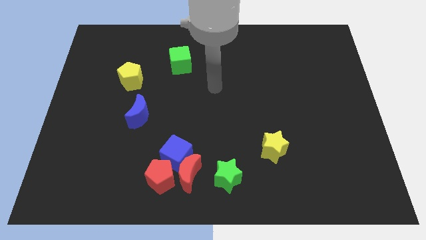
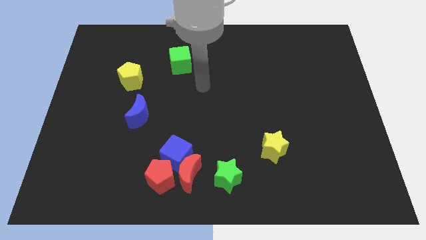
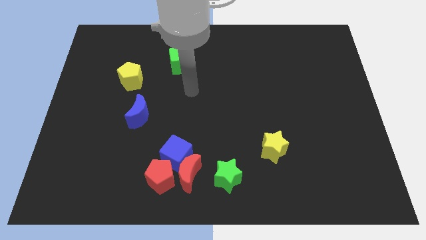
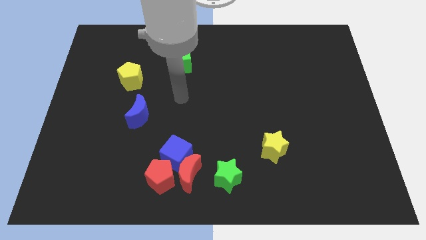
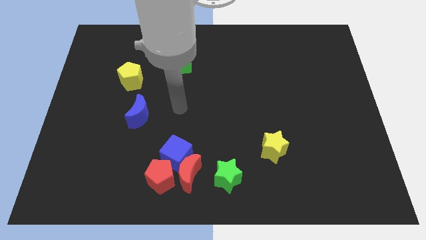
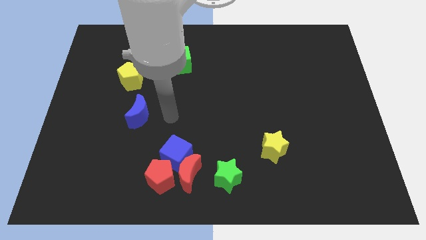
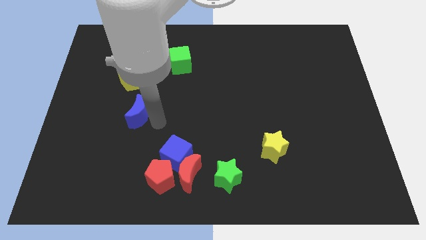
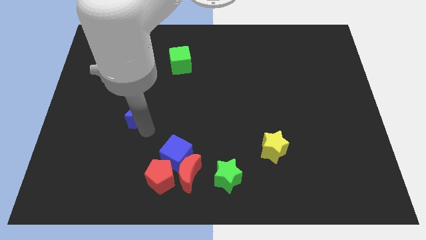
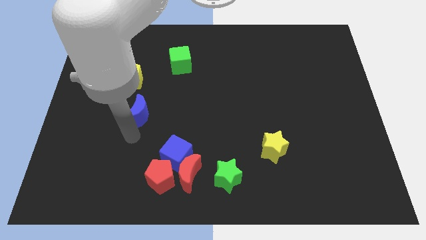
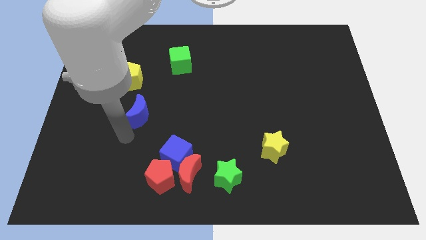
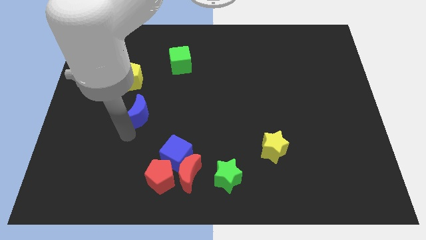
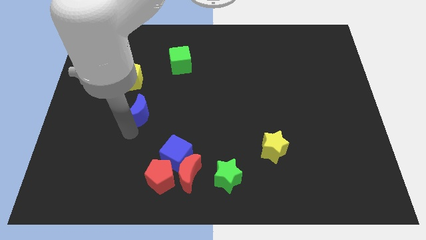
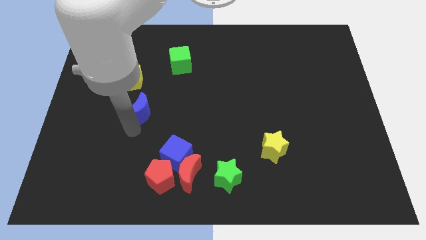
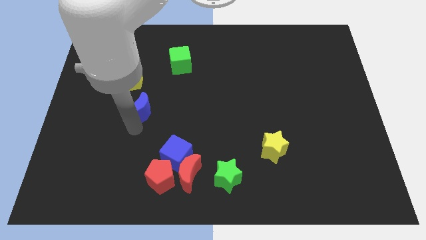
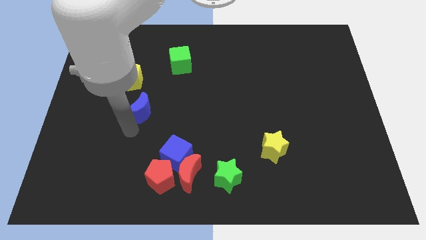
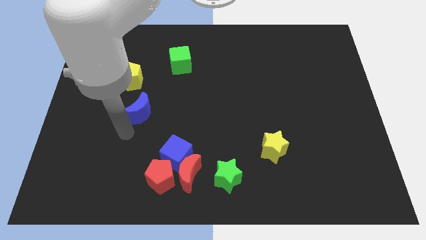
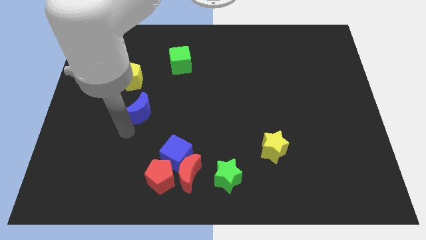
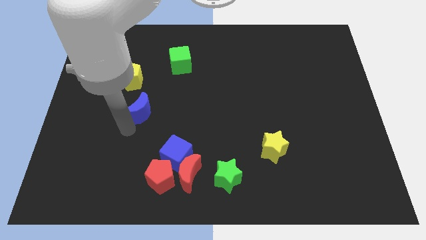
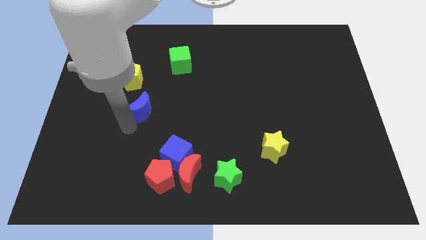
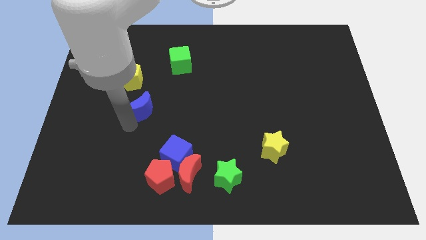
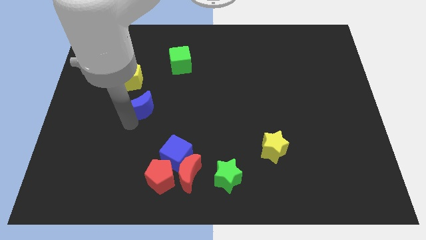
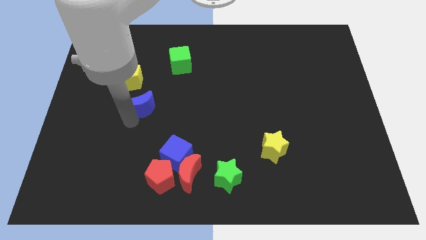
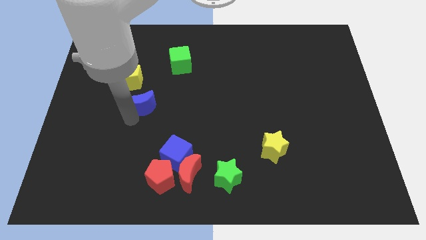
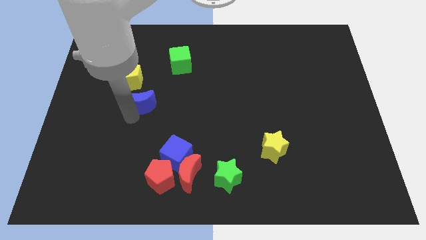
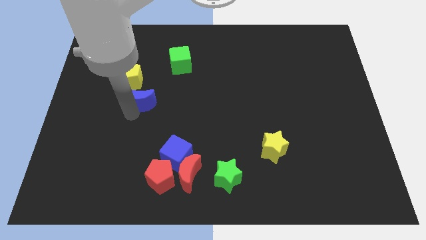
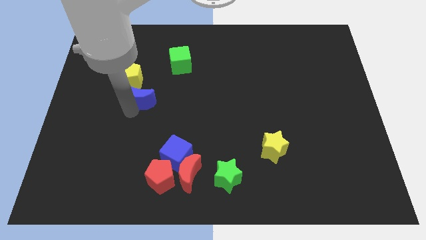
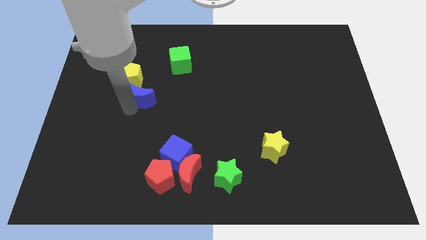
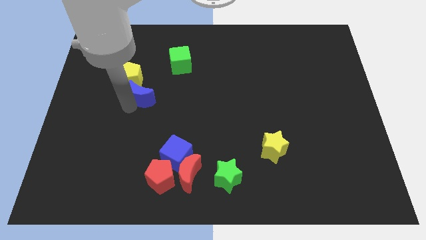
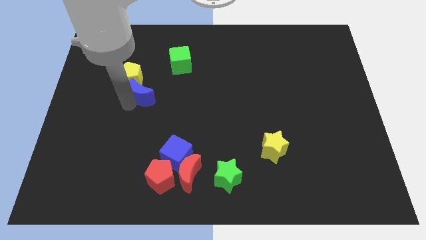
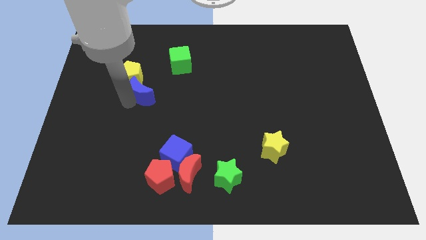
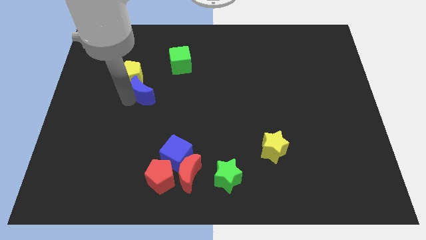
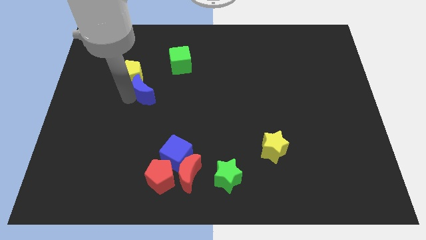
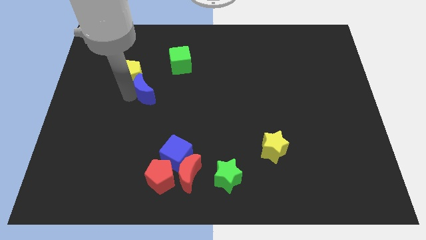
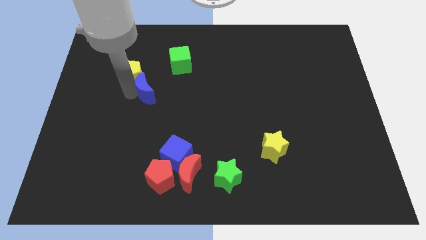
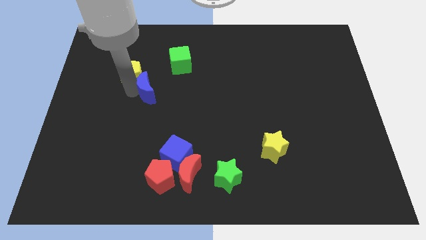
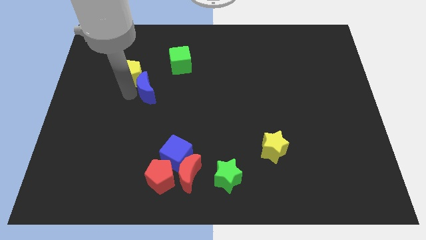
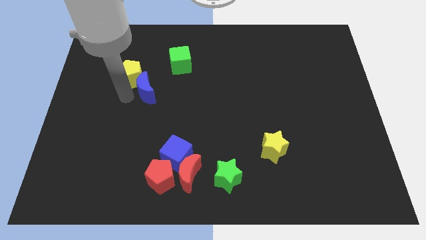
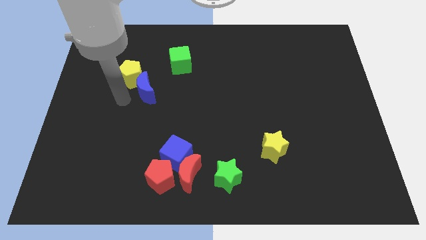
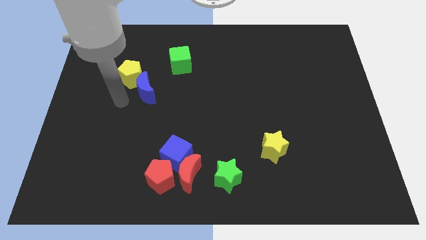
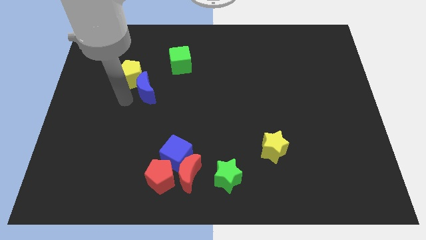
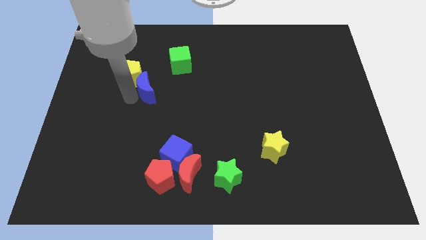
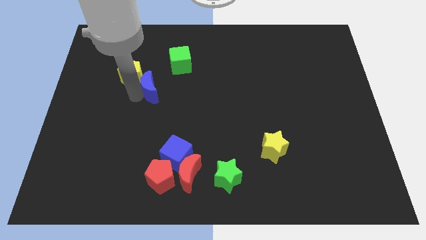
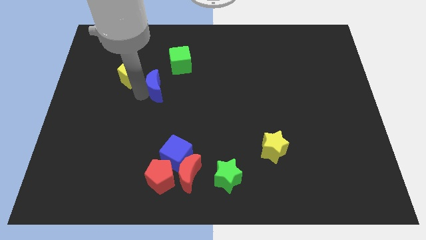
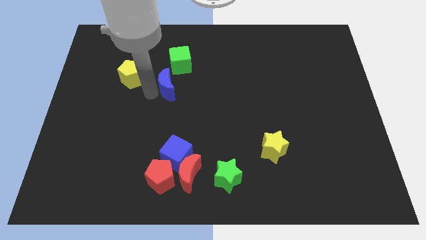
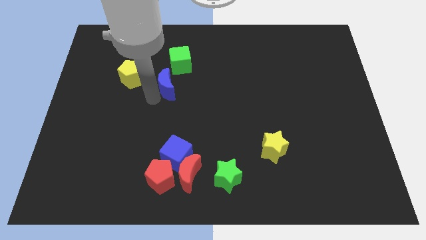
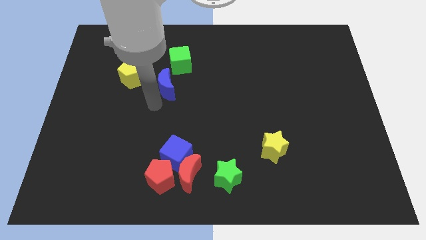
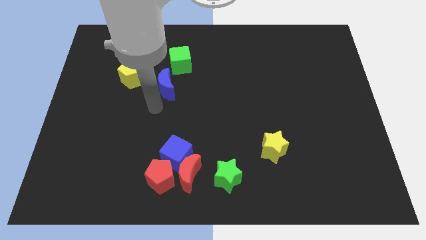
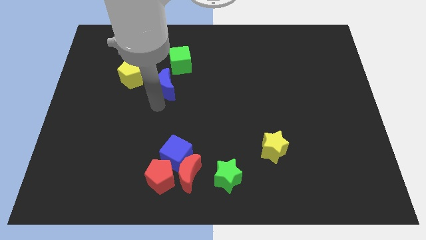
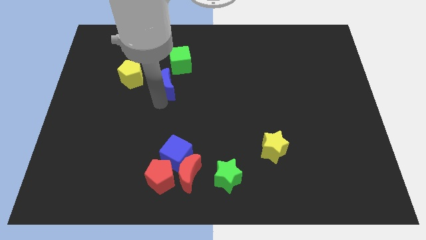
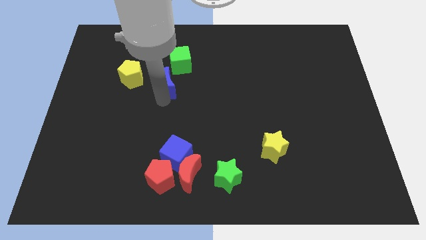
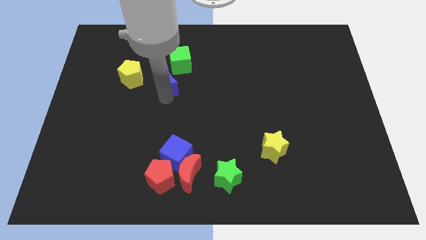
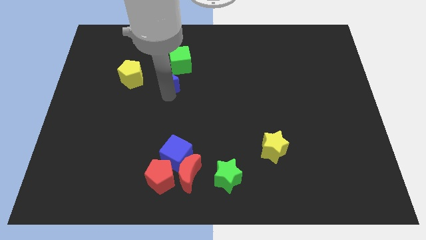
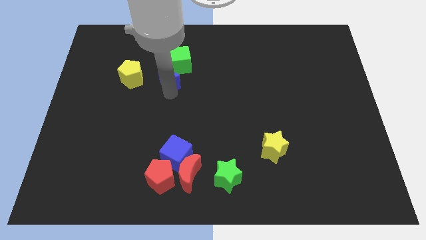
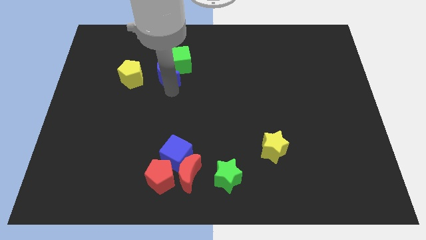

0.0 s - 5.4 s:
put the blue moon close to the green cube

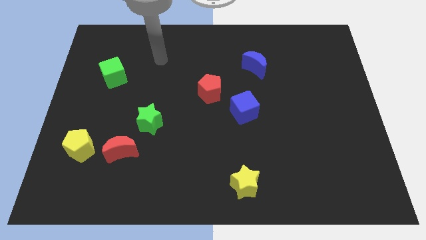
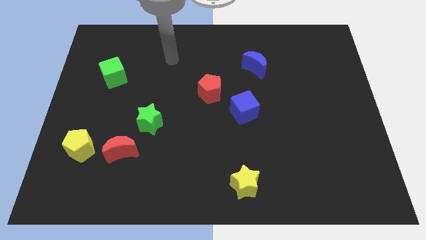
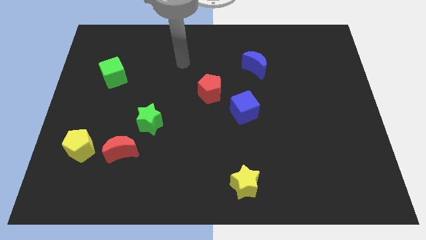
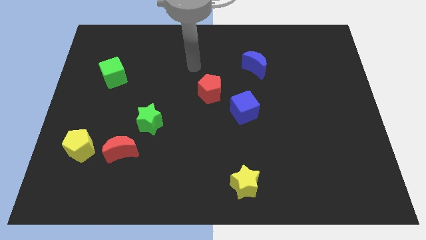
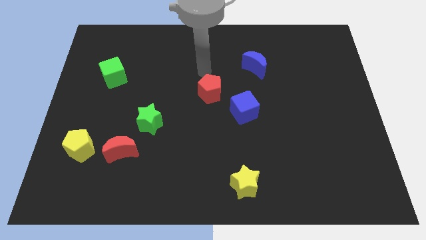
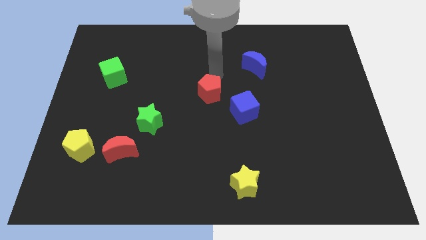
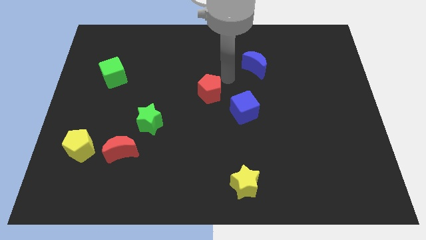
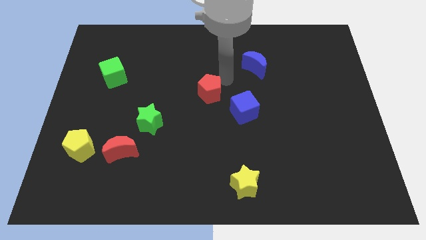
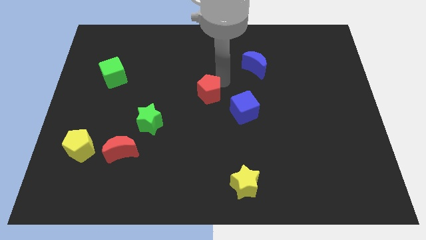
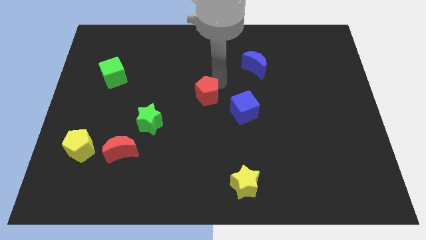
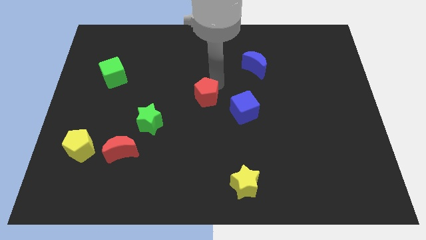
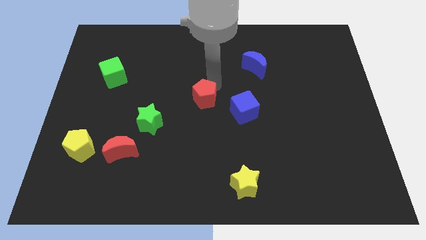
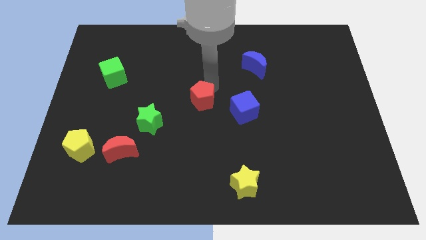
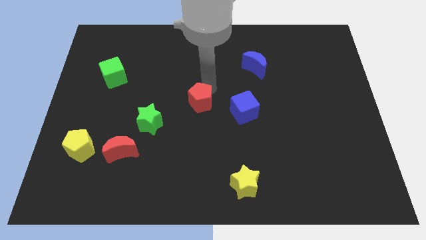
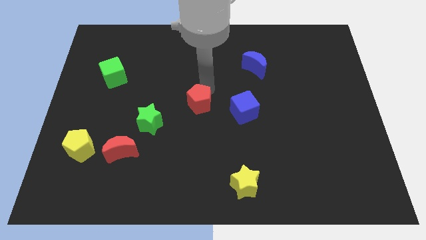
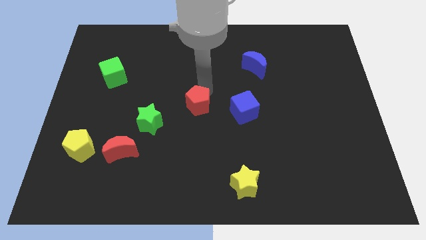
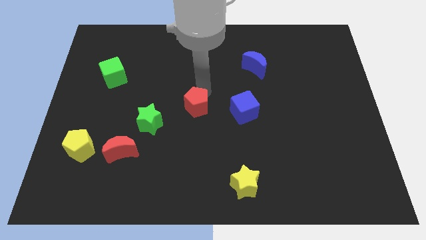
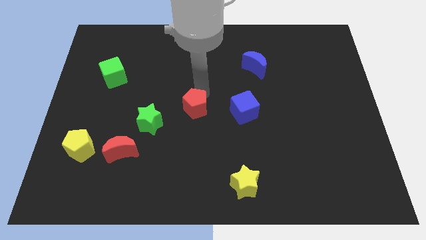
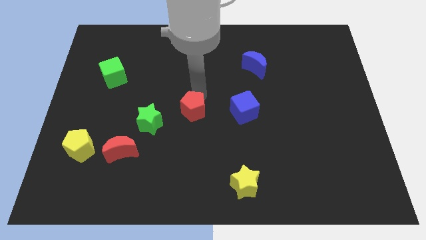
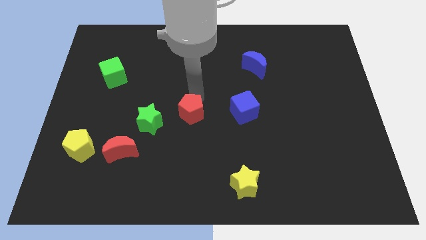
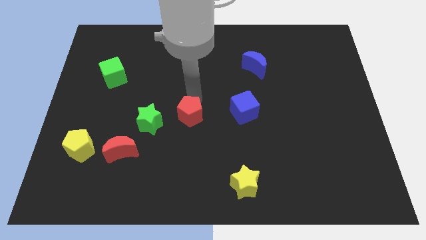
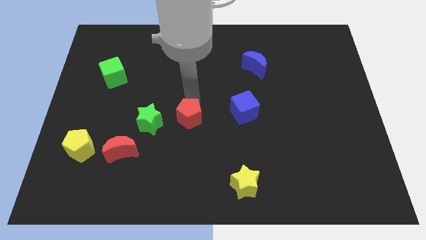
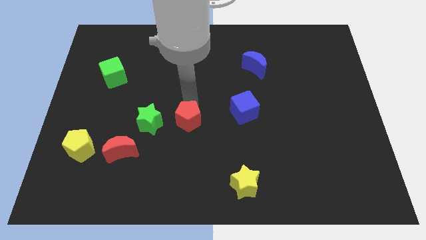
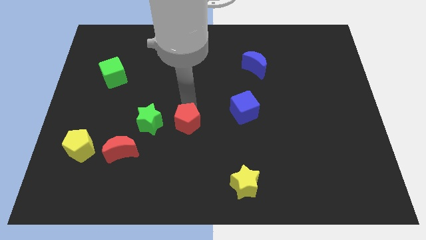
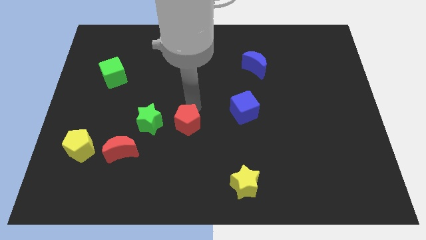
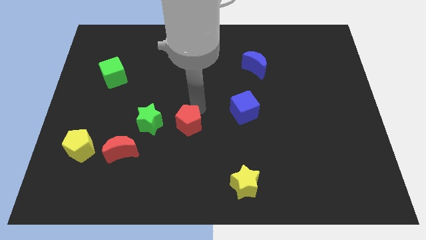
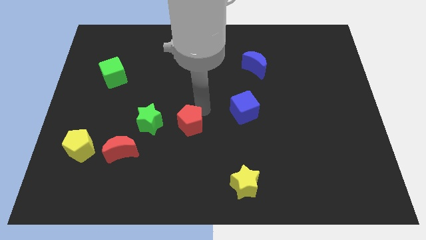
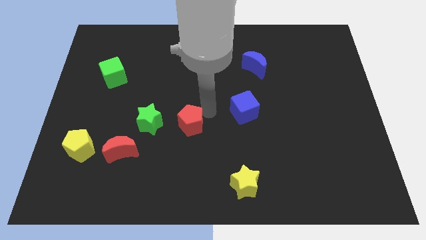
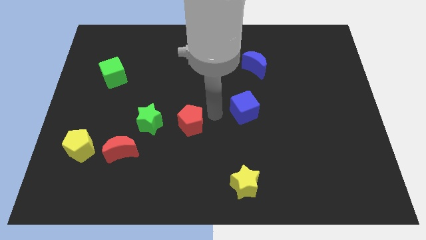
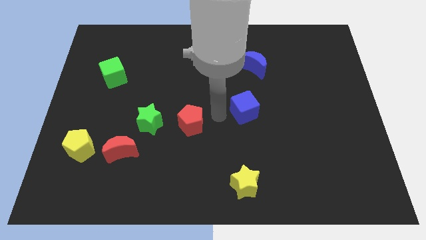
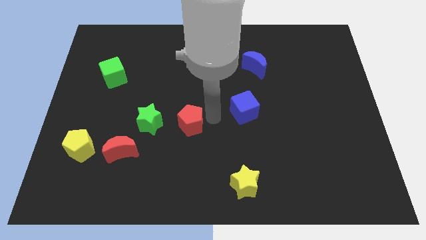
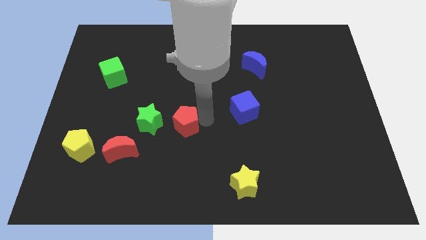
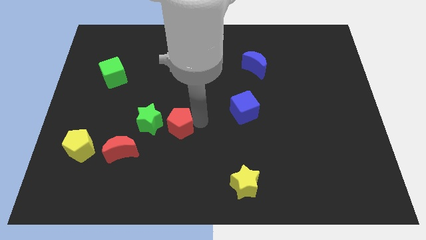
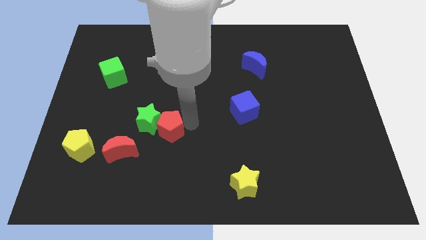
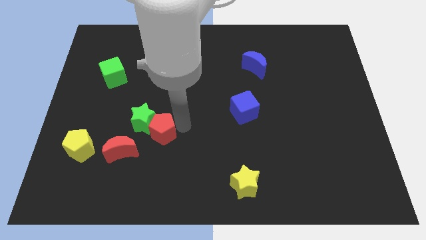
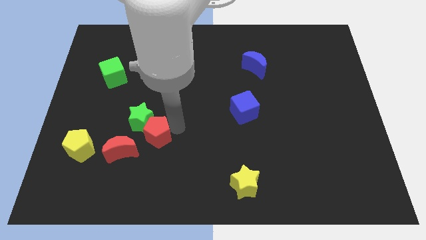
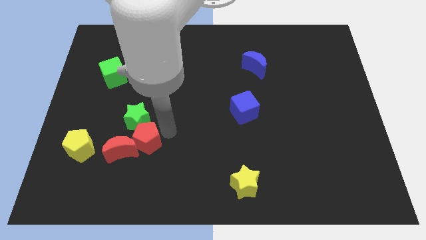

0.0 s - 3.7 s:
put the red pentagon next to the red moon
